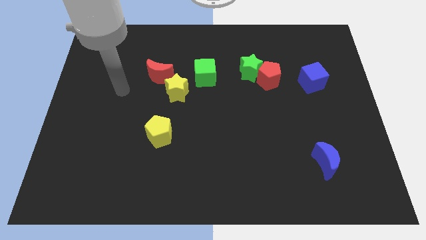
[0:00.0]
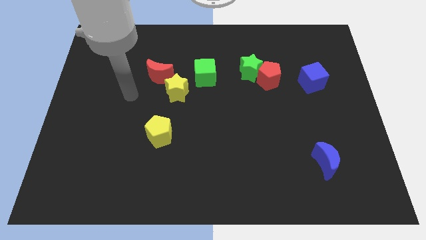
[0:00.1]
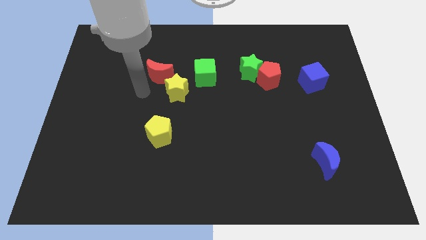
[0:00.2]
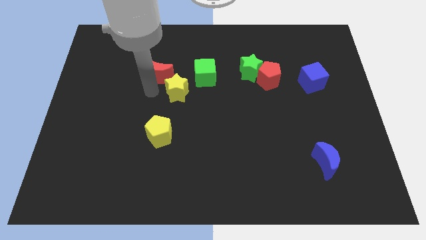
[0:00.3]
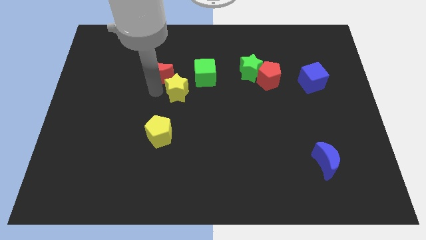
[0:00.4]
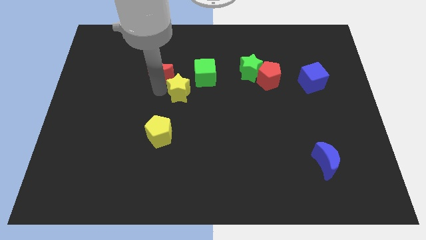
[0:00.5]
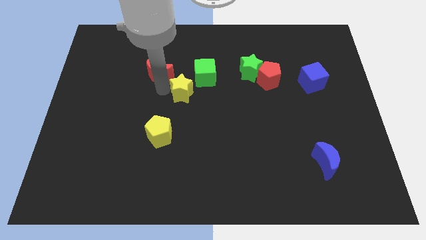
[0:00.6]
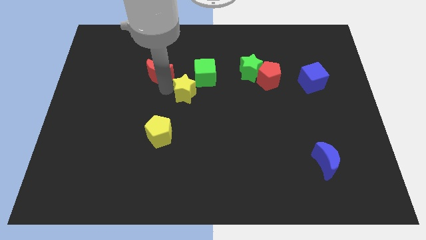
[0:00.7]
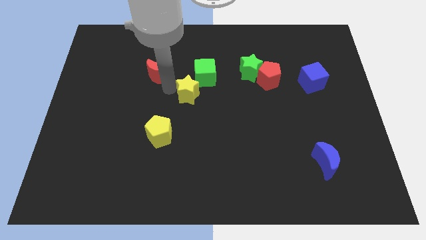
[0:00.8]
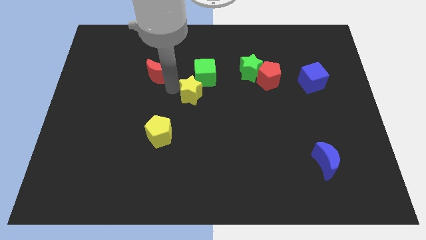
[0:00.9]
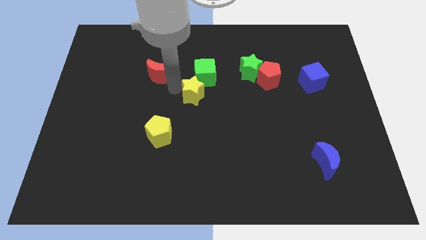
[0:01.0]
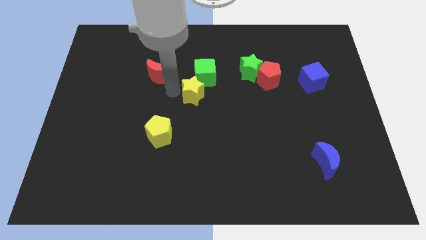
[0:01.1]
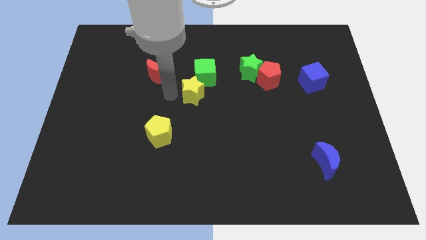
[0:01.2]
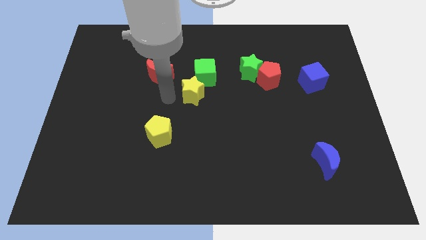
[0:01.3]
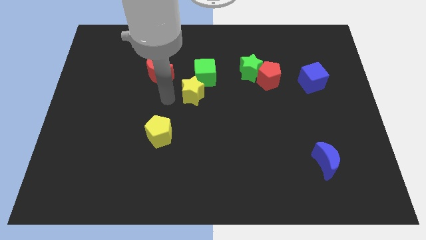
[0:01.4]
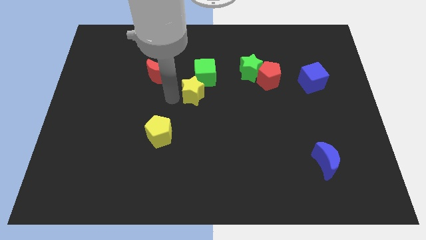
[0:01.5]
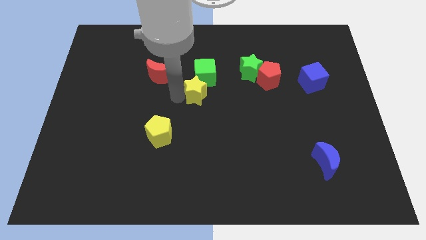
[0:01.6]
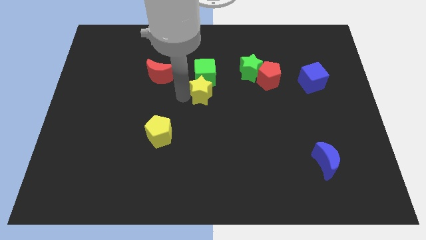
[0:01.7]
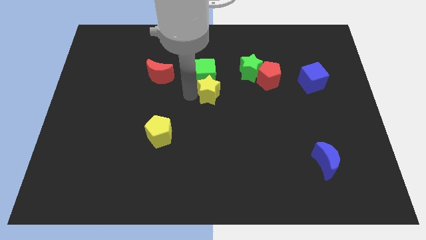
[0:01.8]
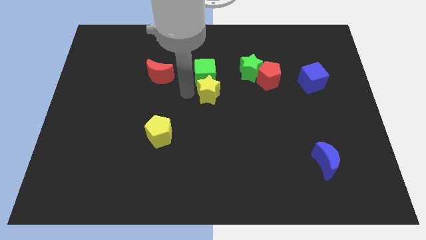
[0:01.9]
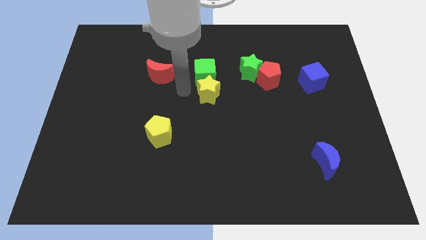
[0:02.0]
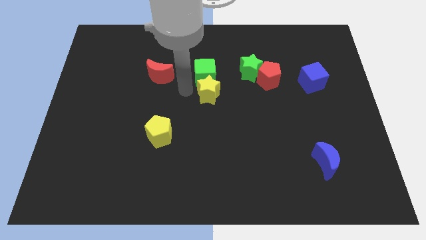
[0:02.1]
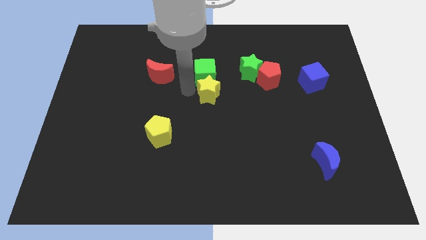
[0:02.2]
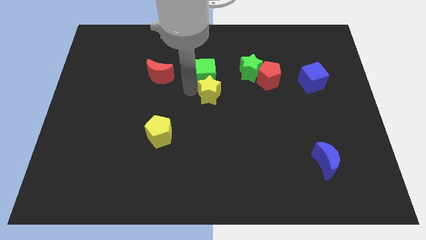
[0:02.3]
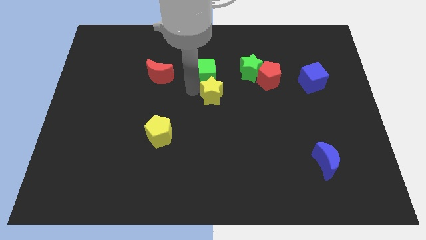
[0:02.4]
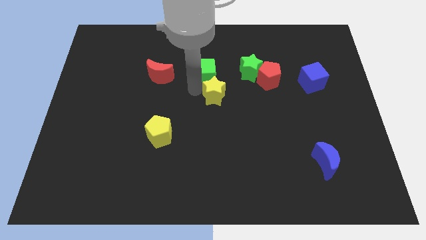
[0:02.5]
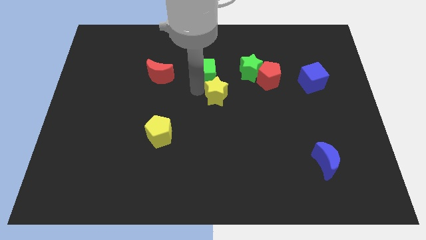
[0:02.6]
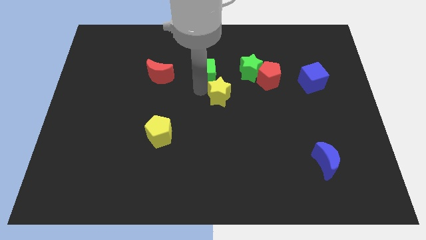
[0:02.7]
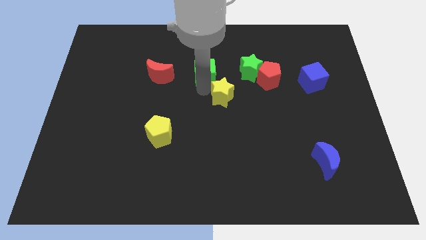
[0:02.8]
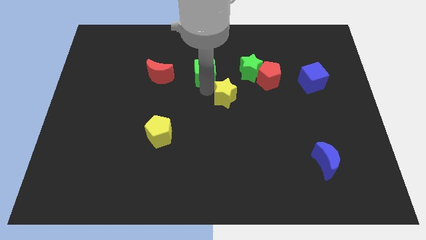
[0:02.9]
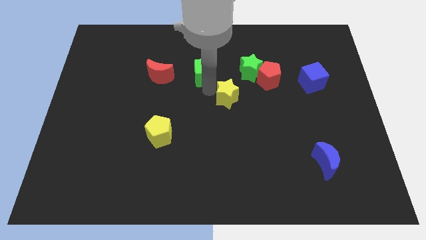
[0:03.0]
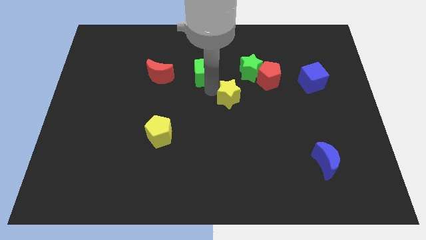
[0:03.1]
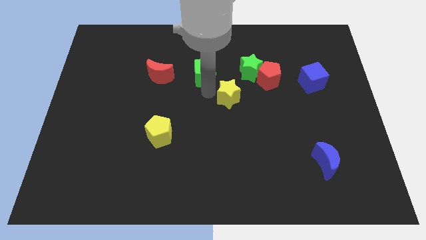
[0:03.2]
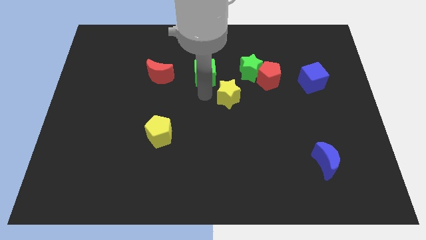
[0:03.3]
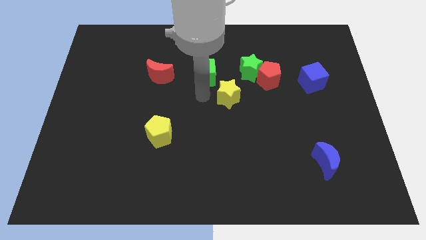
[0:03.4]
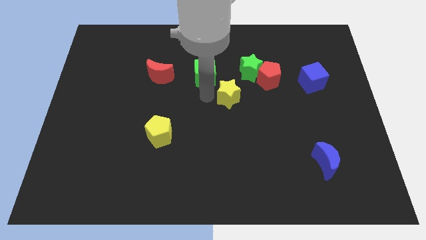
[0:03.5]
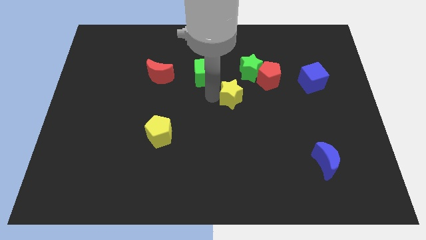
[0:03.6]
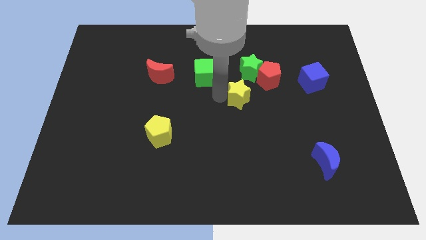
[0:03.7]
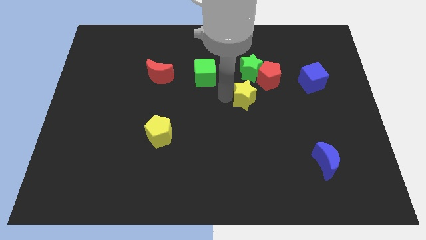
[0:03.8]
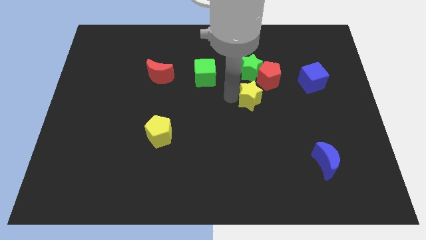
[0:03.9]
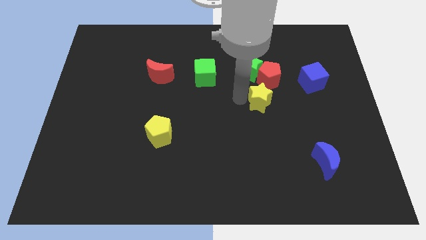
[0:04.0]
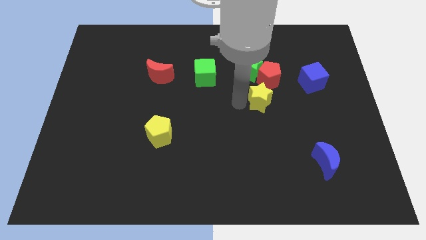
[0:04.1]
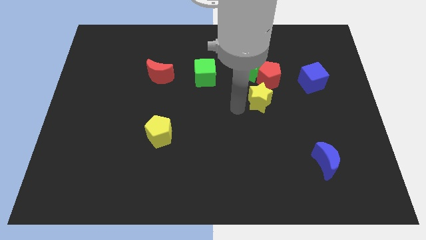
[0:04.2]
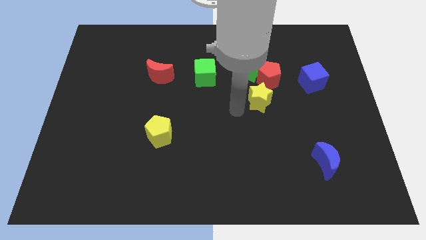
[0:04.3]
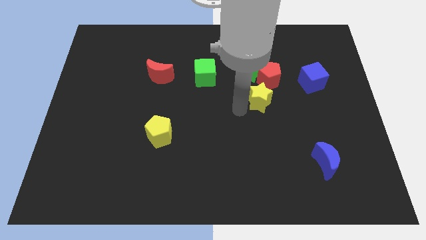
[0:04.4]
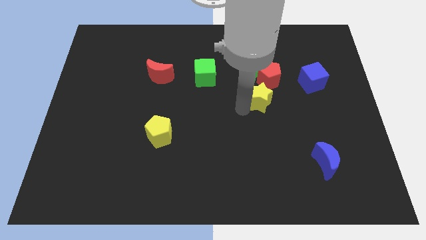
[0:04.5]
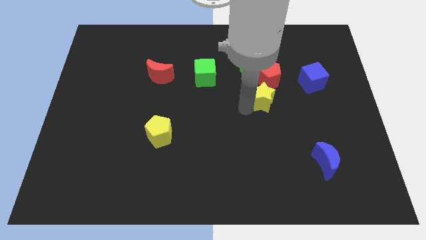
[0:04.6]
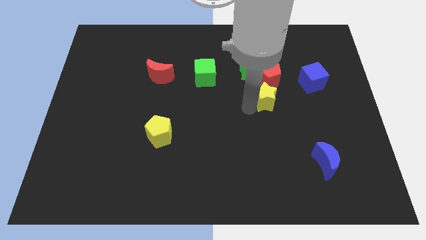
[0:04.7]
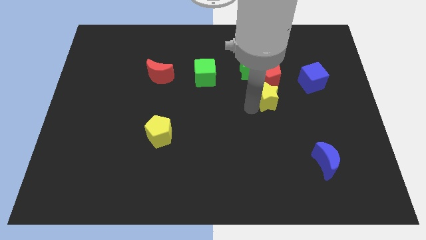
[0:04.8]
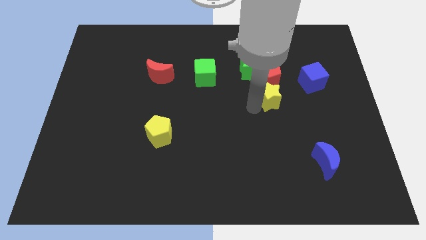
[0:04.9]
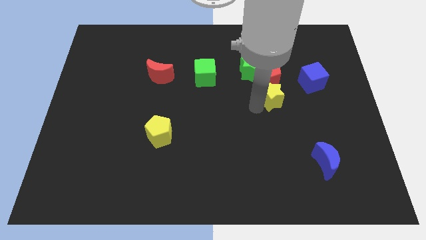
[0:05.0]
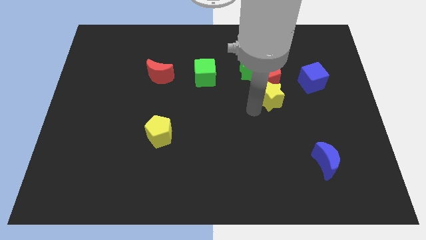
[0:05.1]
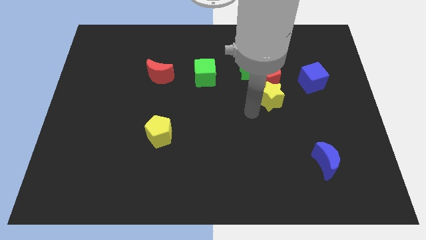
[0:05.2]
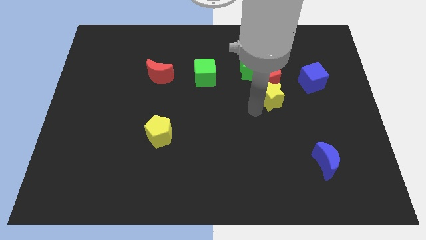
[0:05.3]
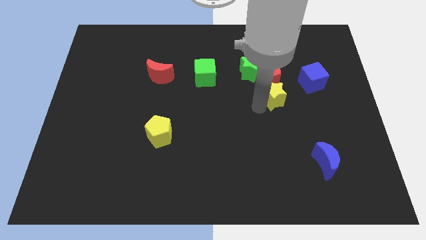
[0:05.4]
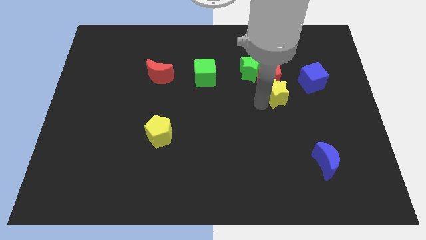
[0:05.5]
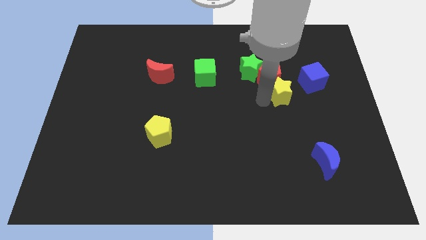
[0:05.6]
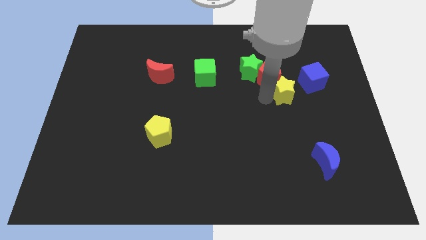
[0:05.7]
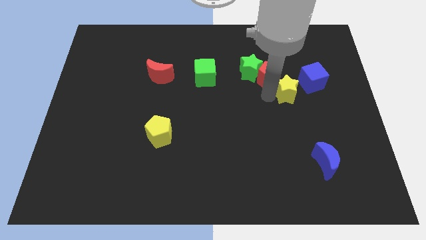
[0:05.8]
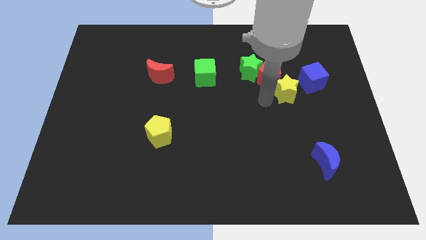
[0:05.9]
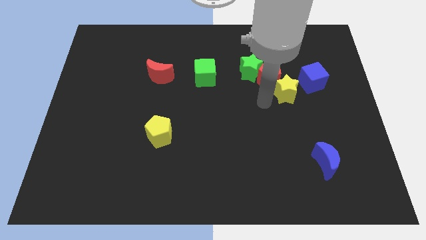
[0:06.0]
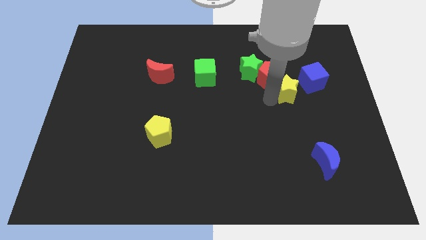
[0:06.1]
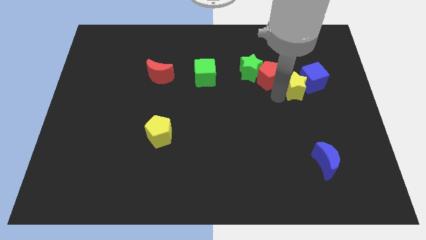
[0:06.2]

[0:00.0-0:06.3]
push the yellow star towards the blue cube

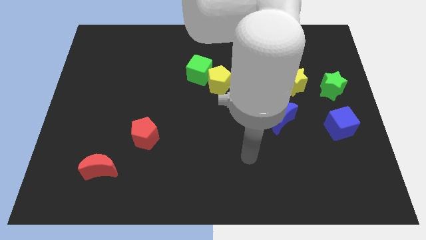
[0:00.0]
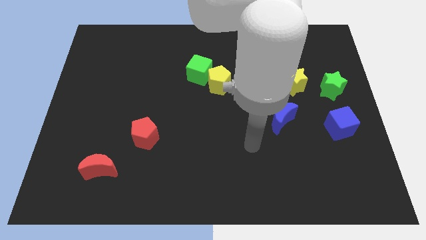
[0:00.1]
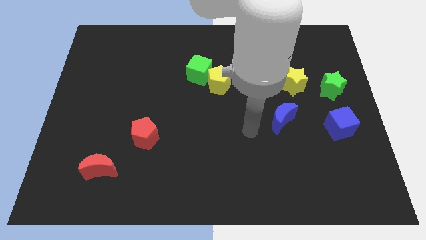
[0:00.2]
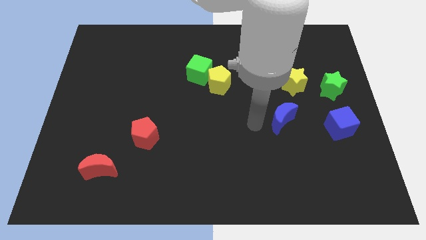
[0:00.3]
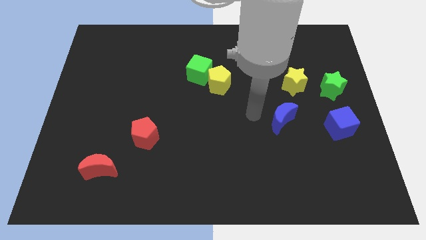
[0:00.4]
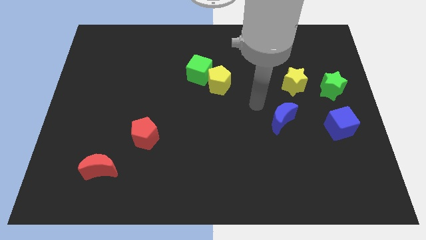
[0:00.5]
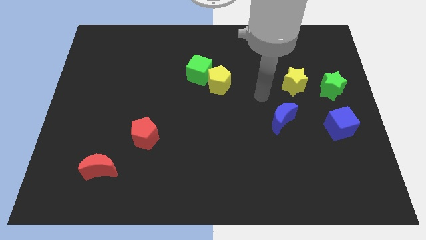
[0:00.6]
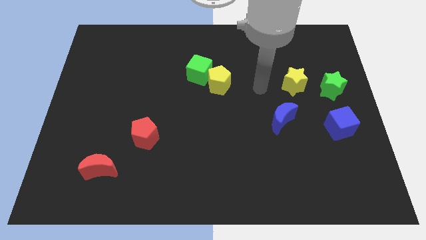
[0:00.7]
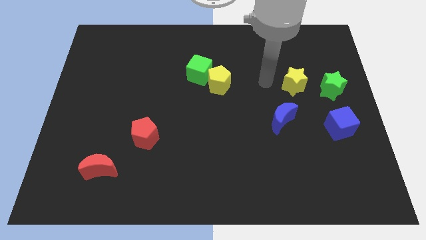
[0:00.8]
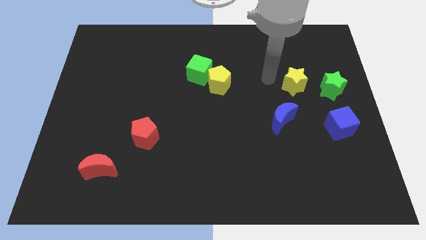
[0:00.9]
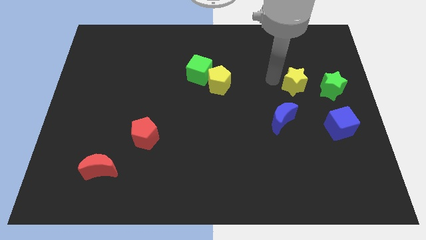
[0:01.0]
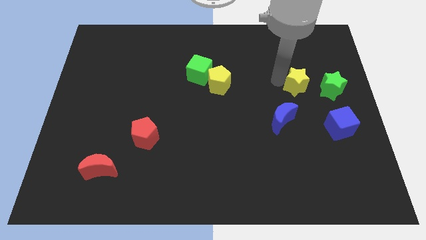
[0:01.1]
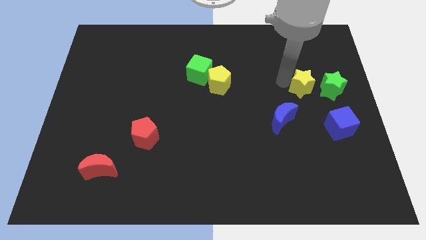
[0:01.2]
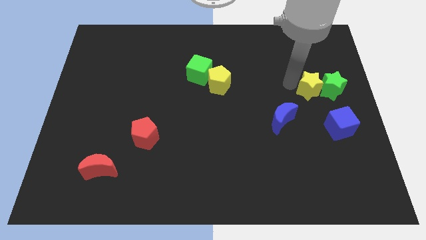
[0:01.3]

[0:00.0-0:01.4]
put the yellow star next to the green star
